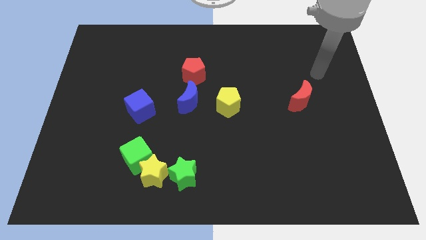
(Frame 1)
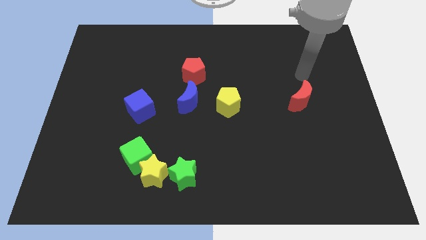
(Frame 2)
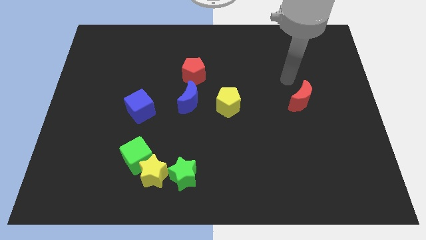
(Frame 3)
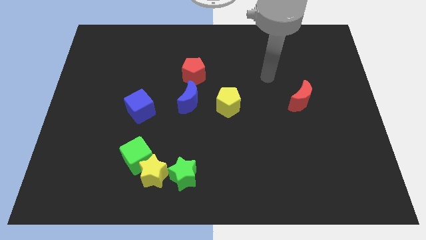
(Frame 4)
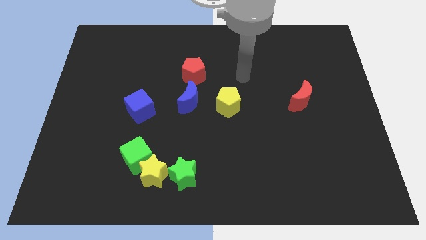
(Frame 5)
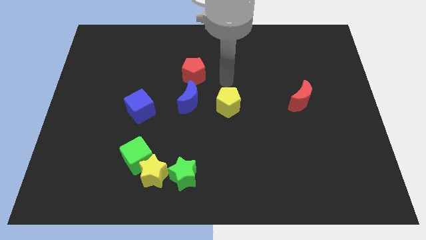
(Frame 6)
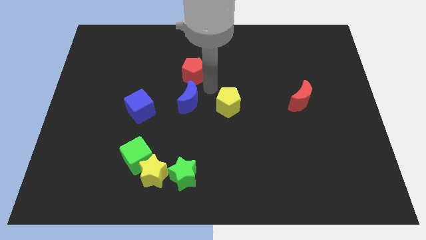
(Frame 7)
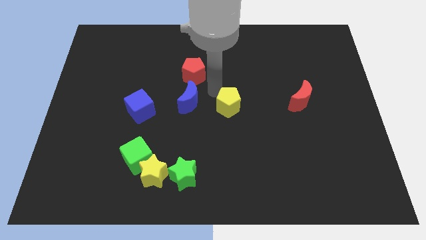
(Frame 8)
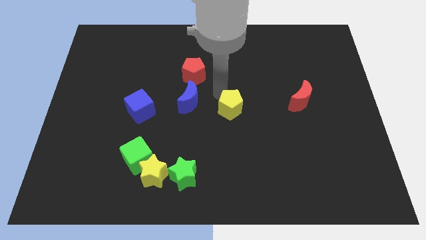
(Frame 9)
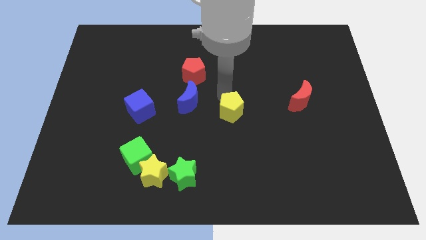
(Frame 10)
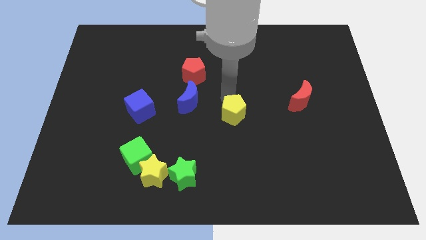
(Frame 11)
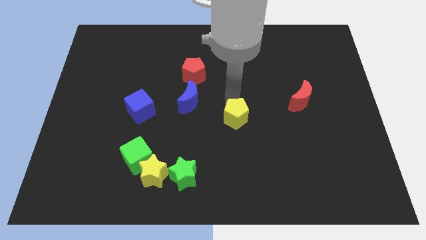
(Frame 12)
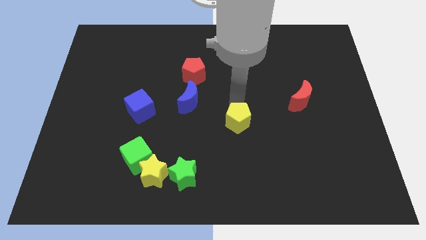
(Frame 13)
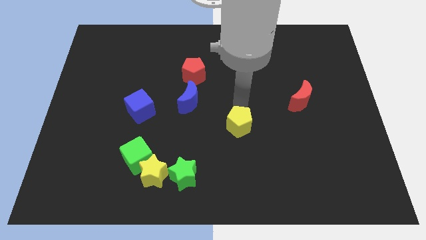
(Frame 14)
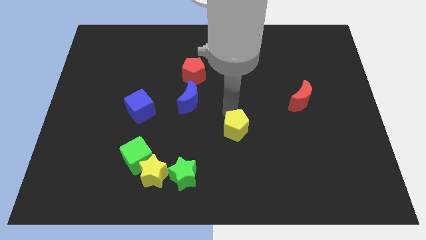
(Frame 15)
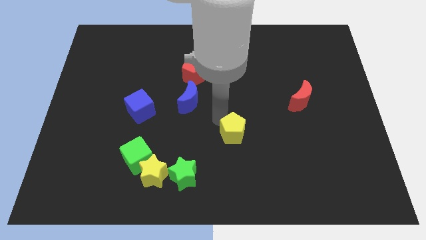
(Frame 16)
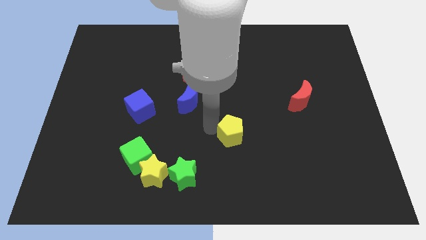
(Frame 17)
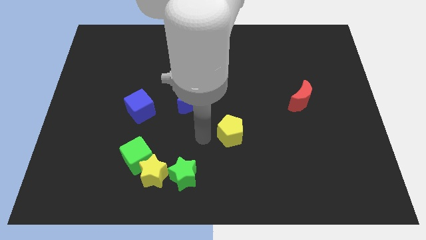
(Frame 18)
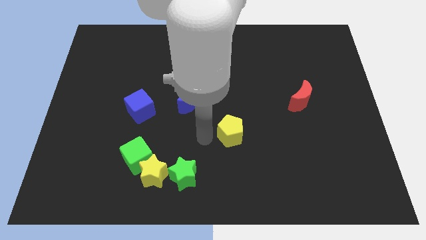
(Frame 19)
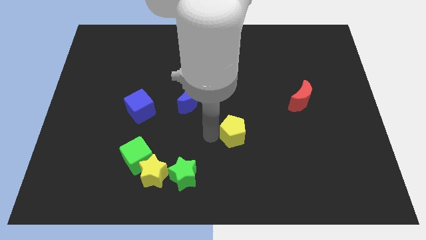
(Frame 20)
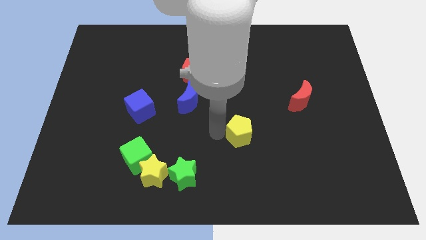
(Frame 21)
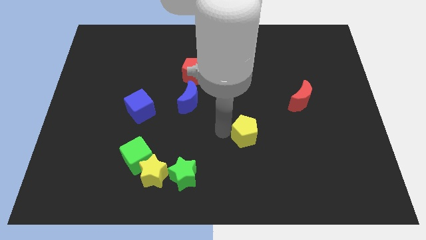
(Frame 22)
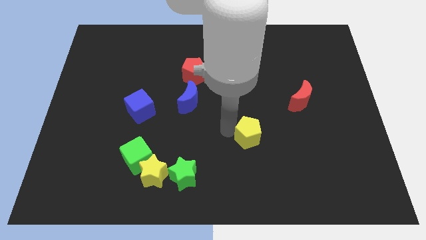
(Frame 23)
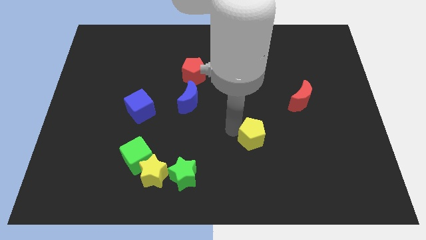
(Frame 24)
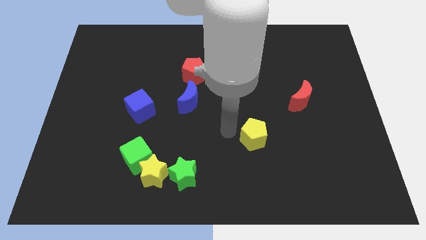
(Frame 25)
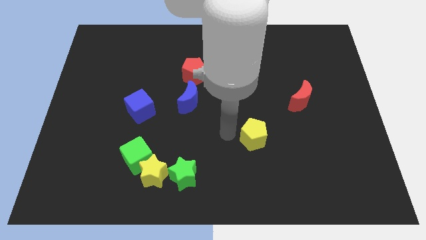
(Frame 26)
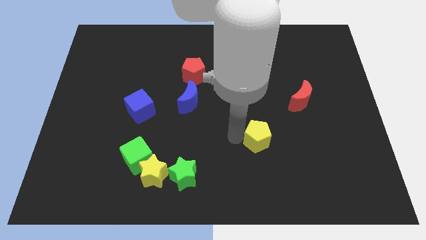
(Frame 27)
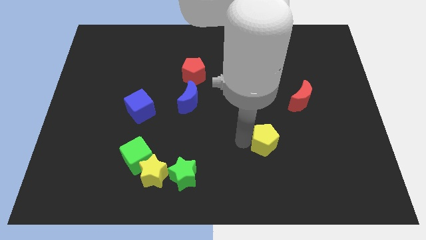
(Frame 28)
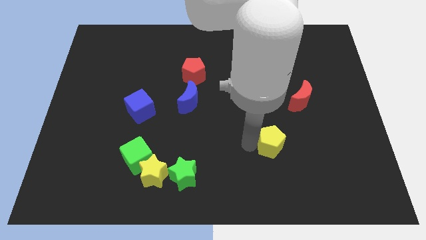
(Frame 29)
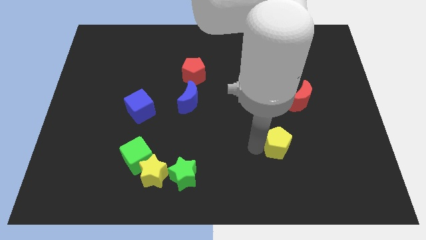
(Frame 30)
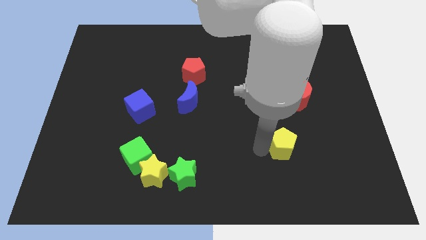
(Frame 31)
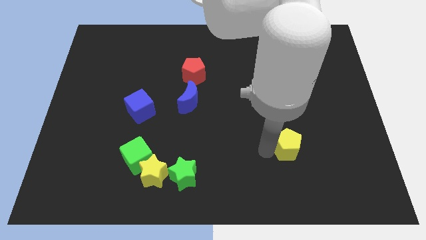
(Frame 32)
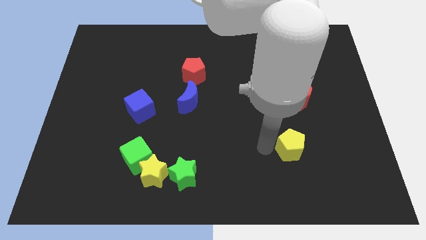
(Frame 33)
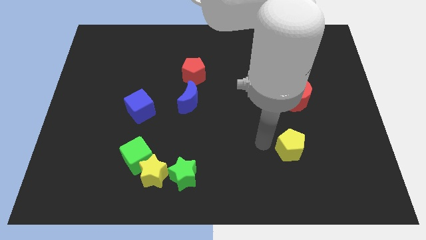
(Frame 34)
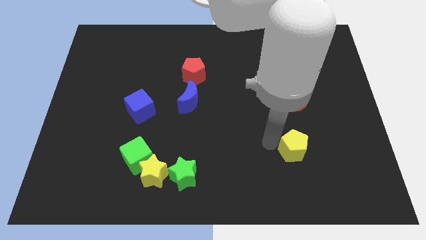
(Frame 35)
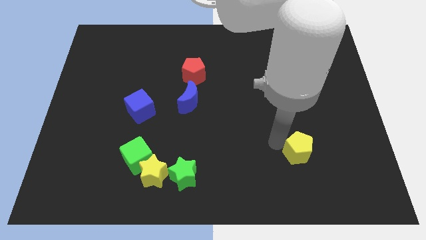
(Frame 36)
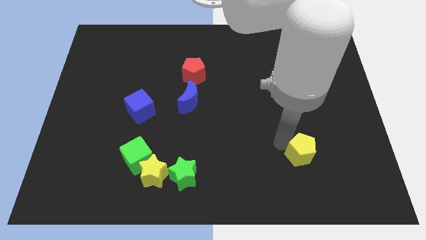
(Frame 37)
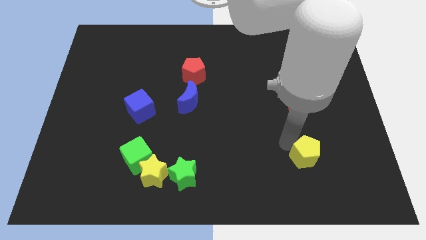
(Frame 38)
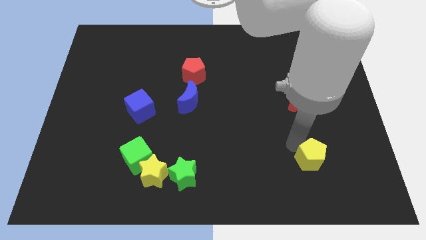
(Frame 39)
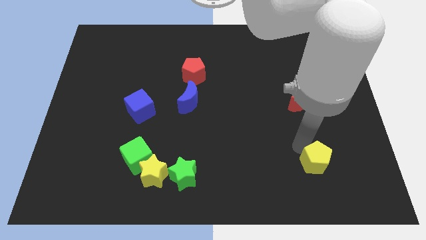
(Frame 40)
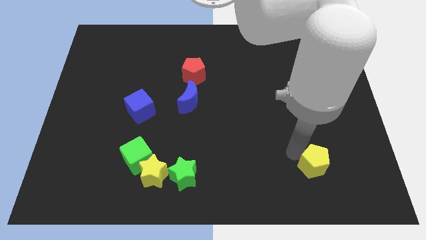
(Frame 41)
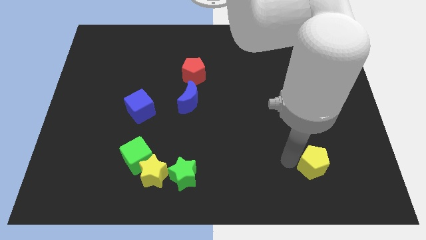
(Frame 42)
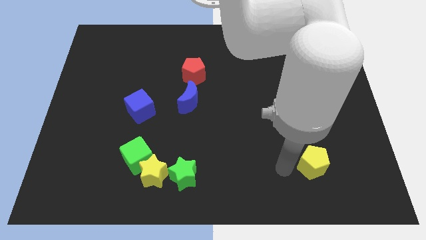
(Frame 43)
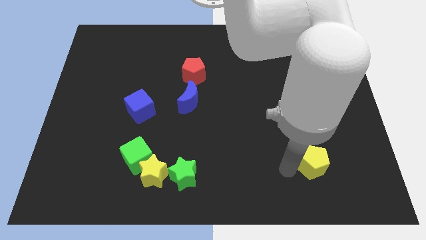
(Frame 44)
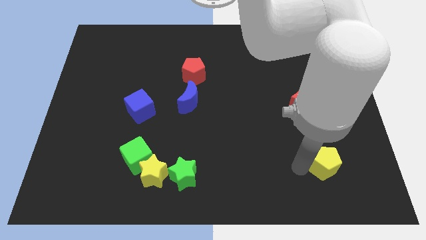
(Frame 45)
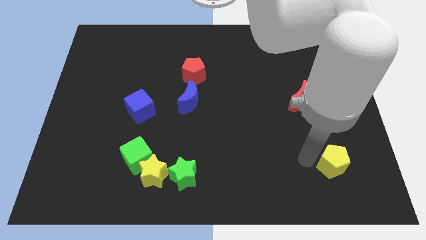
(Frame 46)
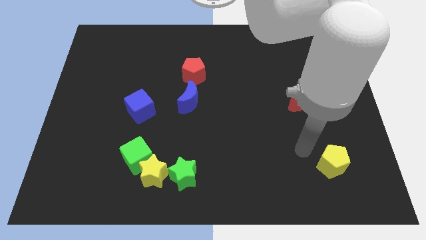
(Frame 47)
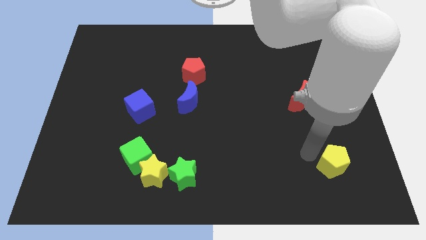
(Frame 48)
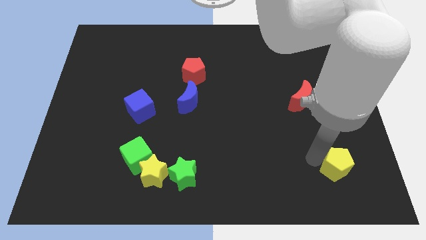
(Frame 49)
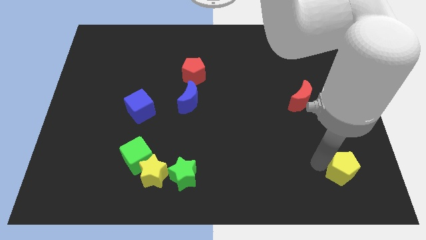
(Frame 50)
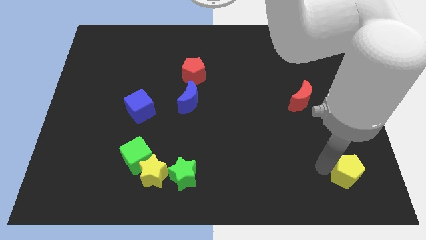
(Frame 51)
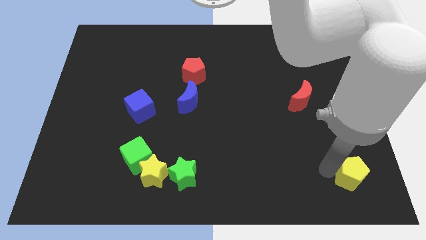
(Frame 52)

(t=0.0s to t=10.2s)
put the yellow pentagon to the bottom right of the board

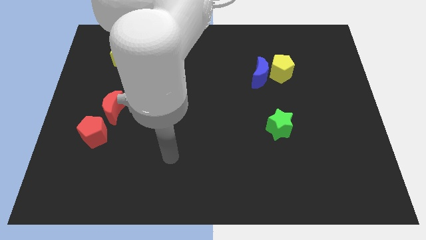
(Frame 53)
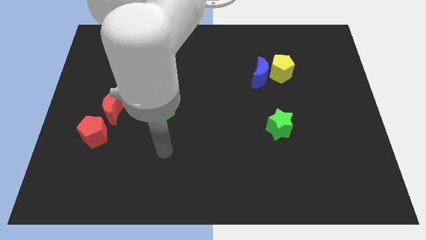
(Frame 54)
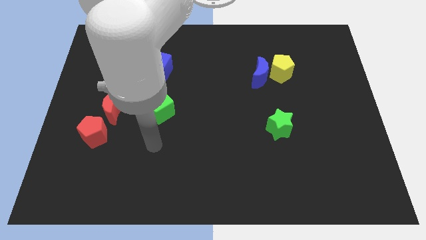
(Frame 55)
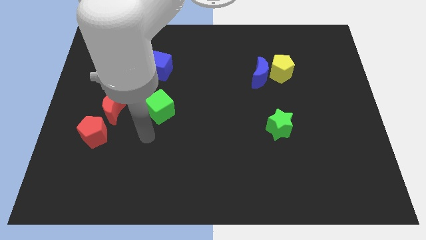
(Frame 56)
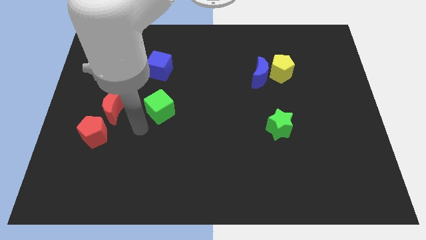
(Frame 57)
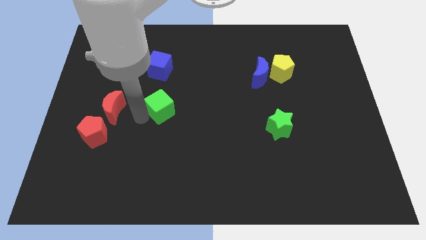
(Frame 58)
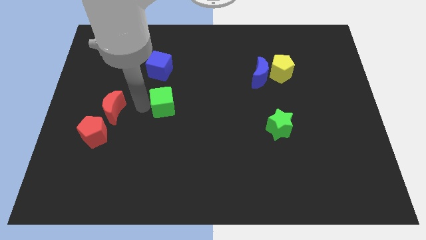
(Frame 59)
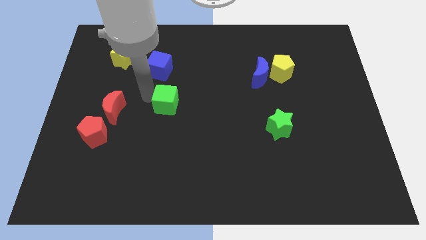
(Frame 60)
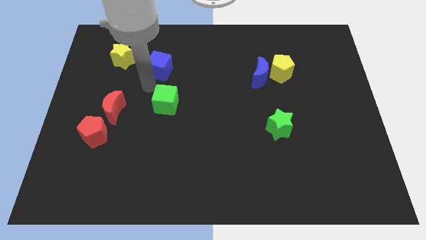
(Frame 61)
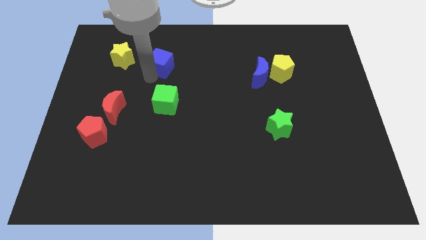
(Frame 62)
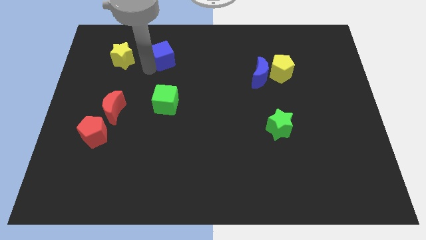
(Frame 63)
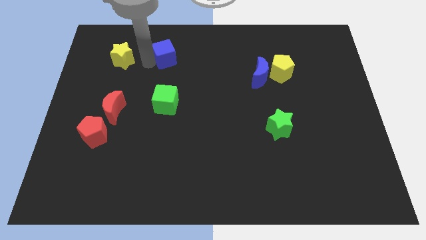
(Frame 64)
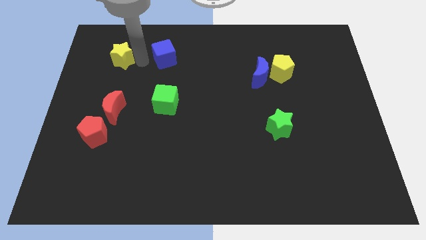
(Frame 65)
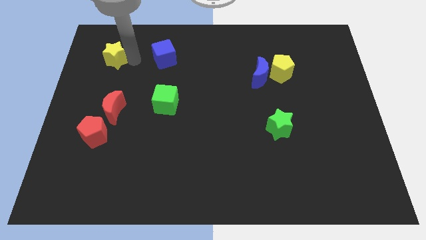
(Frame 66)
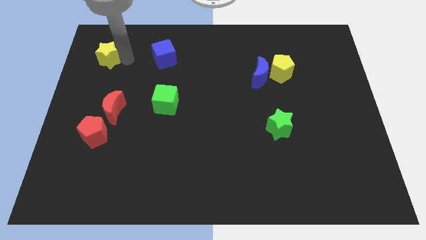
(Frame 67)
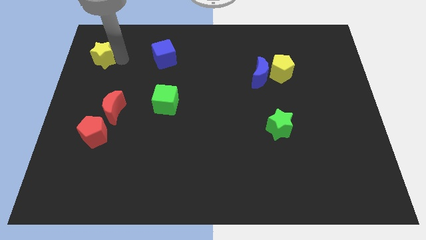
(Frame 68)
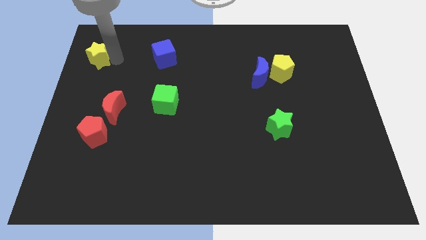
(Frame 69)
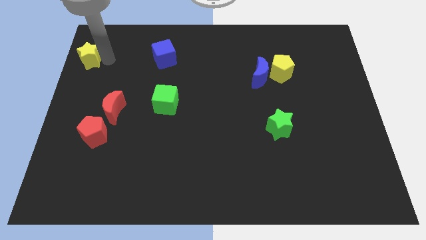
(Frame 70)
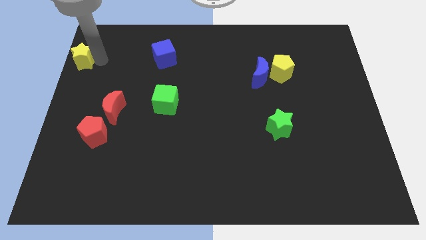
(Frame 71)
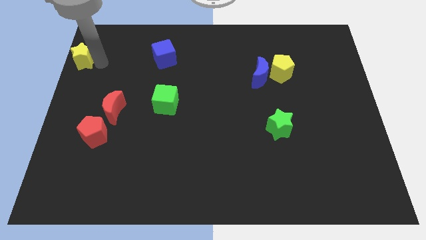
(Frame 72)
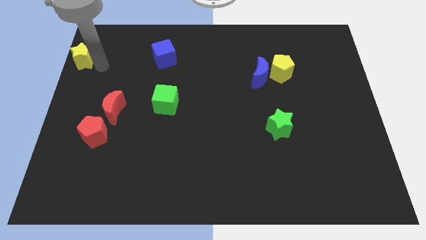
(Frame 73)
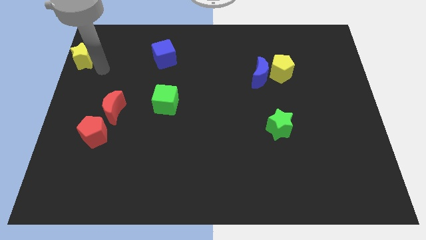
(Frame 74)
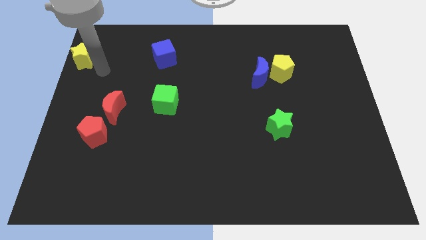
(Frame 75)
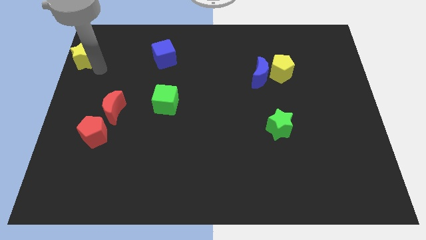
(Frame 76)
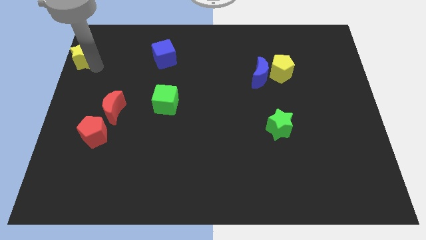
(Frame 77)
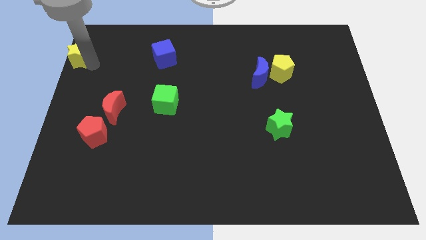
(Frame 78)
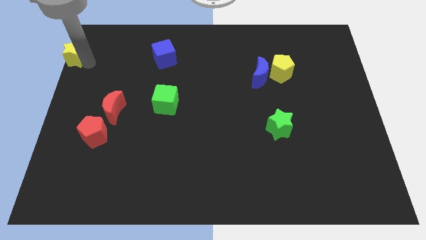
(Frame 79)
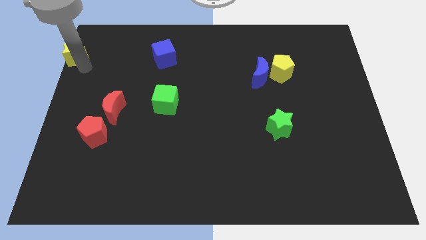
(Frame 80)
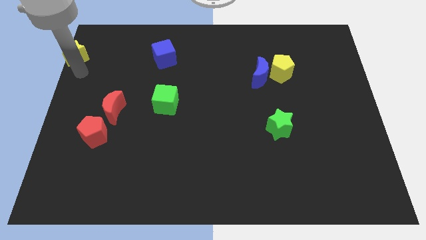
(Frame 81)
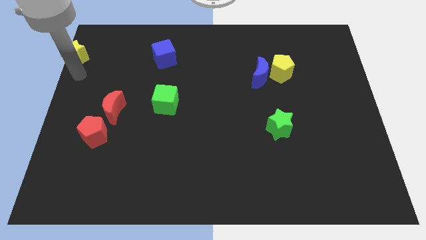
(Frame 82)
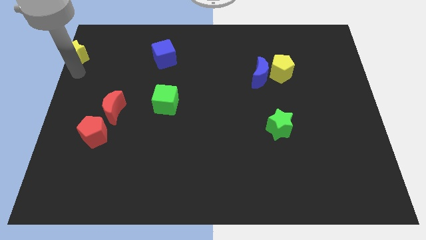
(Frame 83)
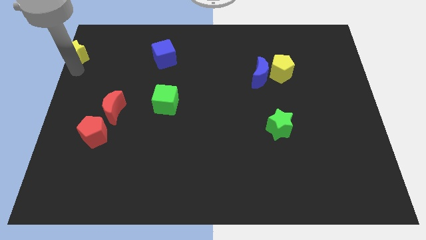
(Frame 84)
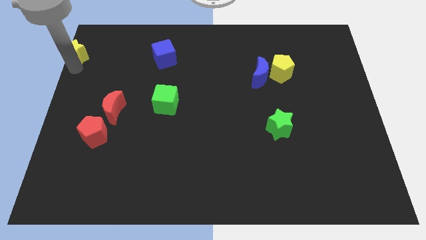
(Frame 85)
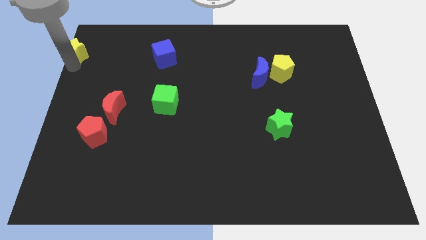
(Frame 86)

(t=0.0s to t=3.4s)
slide the yellow star to the top left corner
